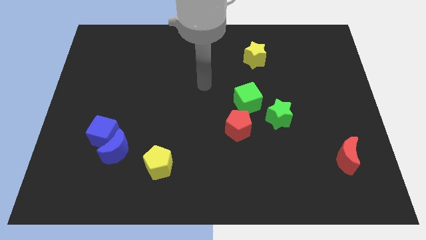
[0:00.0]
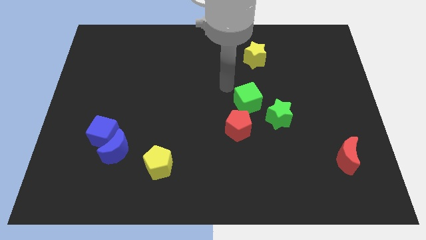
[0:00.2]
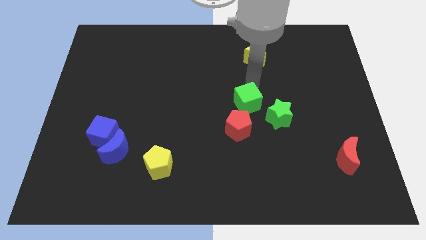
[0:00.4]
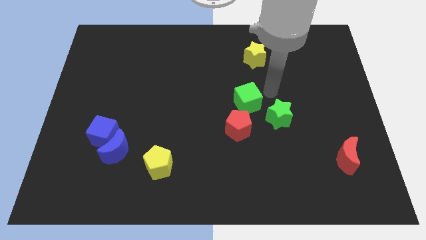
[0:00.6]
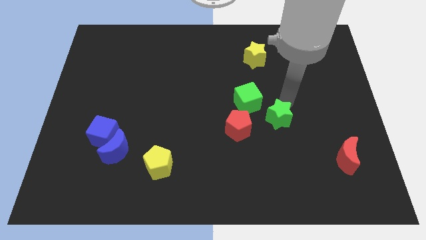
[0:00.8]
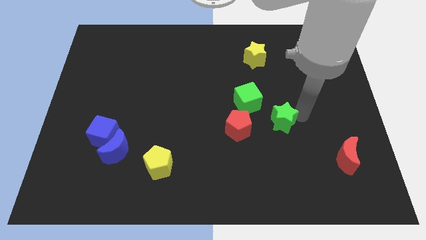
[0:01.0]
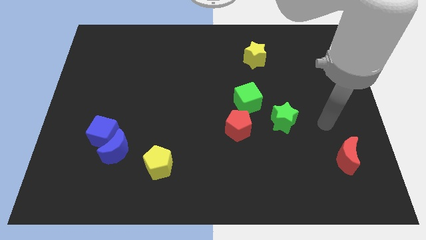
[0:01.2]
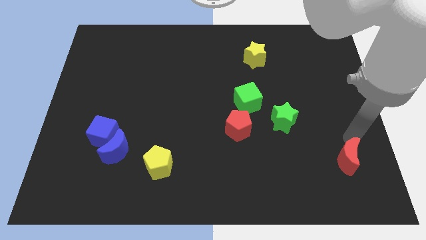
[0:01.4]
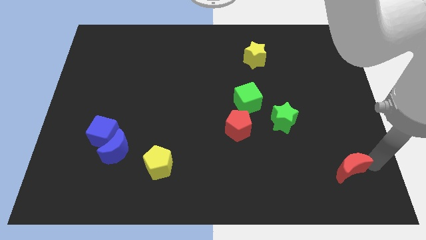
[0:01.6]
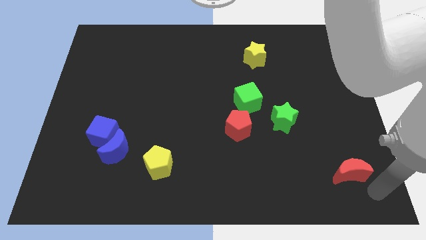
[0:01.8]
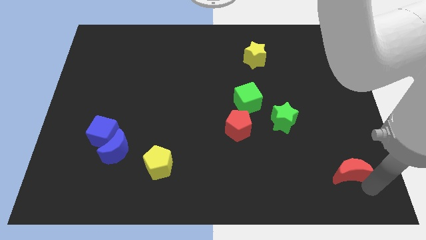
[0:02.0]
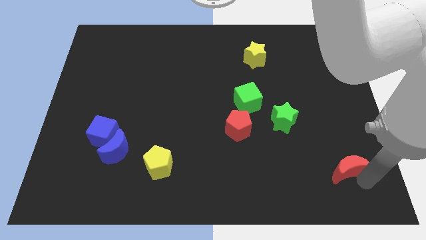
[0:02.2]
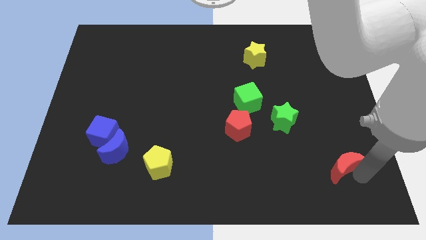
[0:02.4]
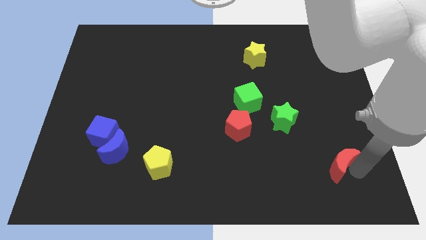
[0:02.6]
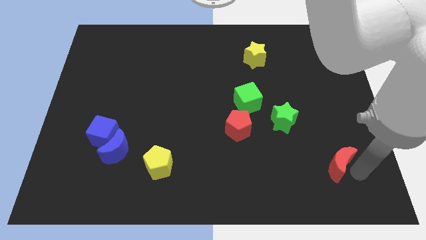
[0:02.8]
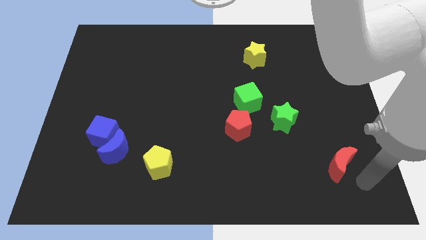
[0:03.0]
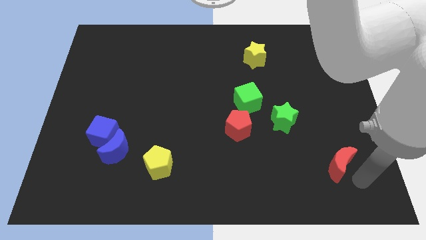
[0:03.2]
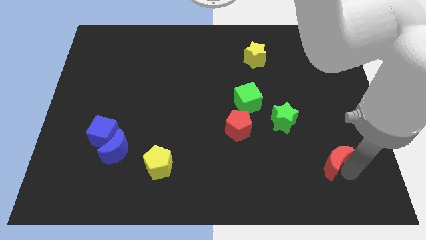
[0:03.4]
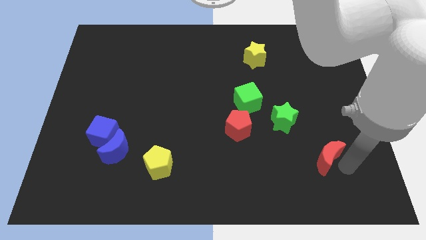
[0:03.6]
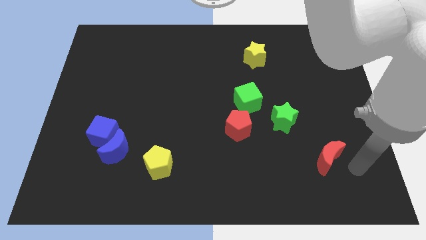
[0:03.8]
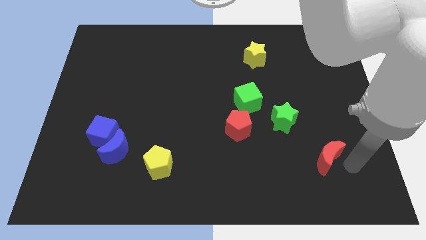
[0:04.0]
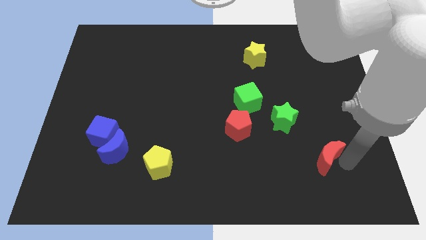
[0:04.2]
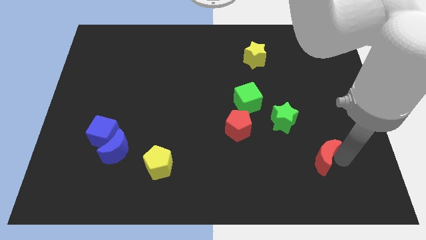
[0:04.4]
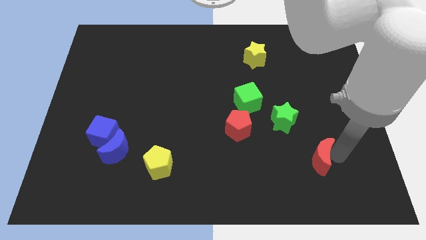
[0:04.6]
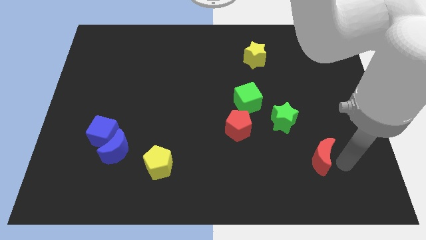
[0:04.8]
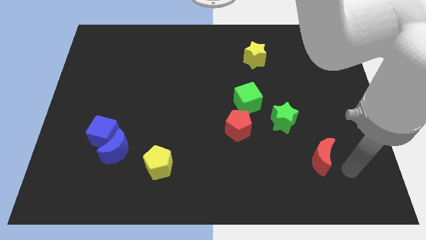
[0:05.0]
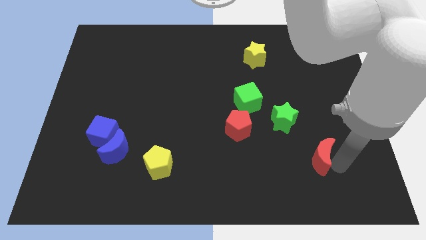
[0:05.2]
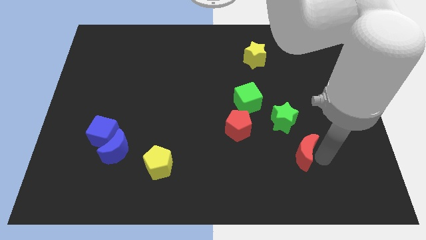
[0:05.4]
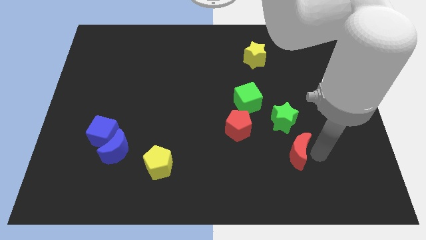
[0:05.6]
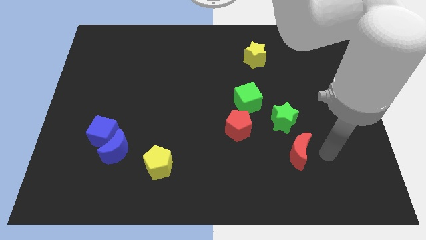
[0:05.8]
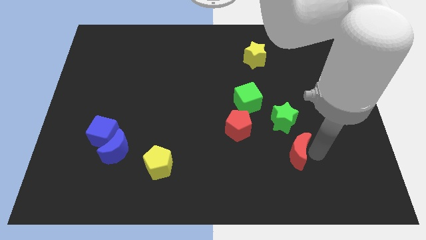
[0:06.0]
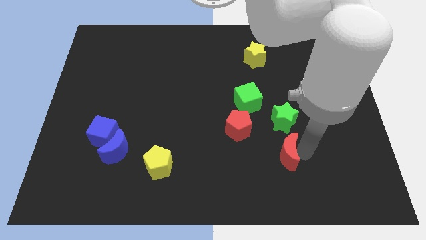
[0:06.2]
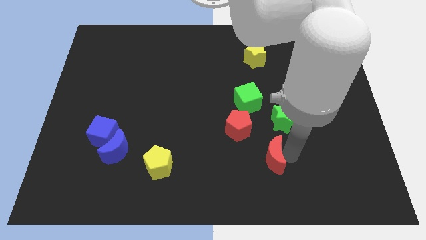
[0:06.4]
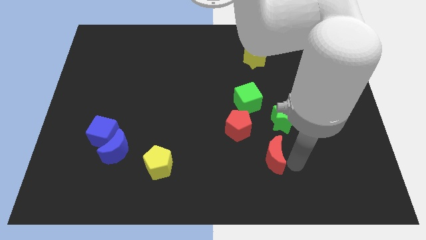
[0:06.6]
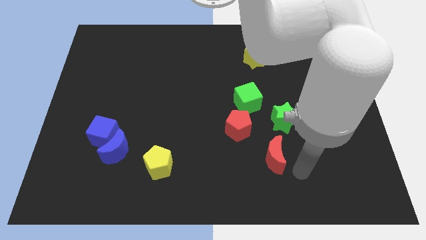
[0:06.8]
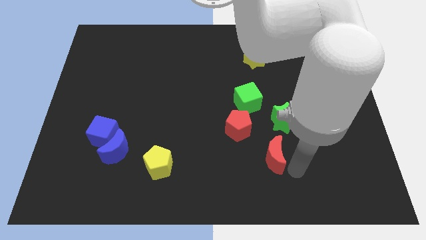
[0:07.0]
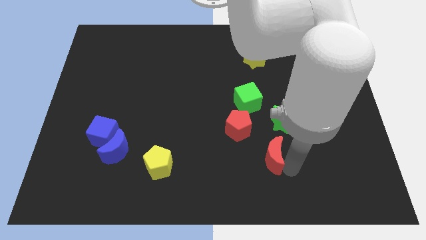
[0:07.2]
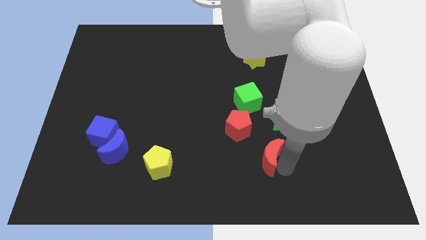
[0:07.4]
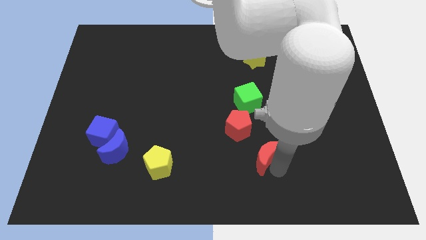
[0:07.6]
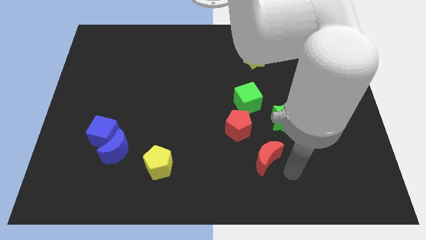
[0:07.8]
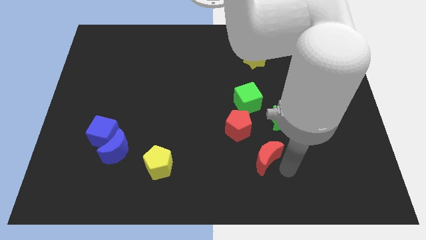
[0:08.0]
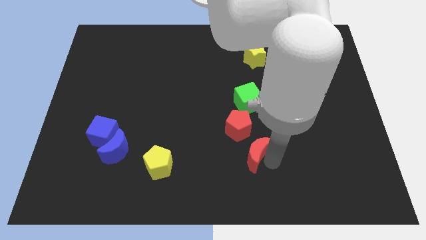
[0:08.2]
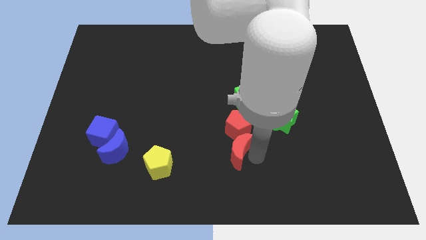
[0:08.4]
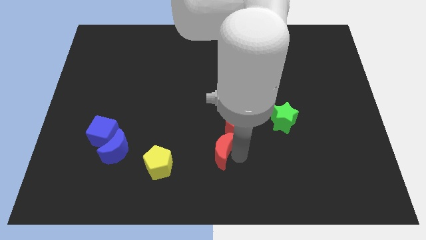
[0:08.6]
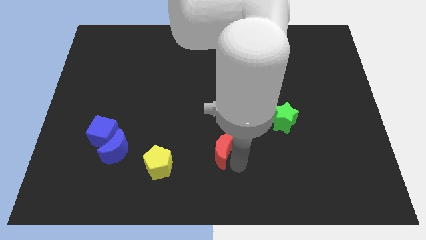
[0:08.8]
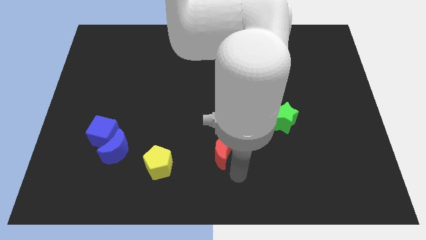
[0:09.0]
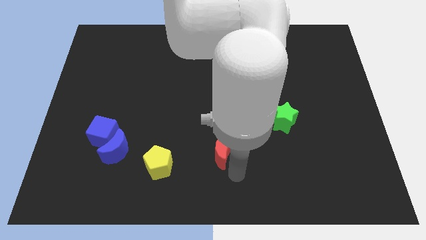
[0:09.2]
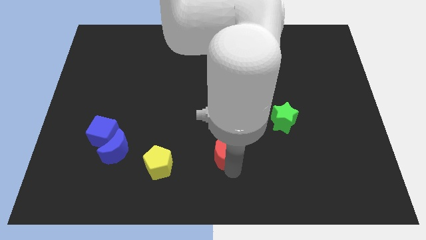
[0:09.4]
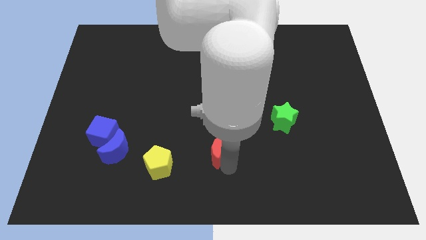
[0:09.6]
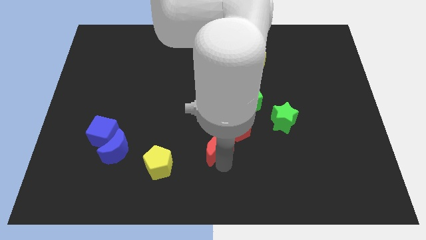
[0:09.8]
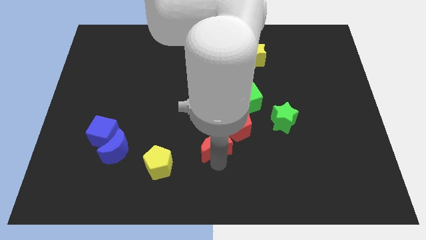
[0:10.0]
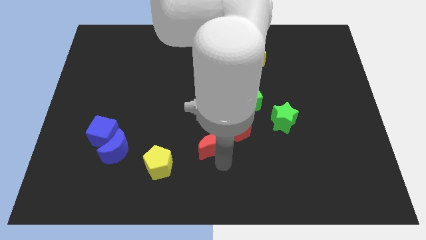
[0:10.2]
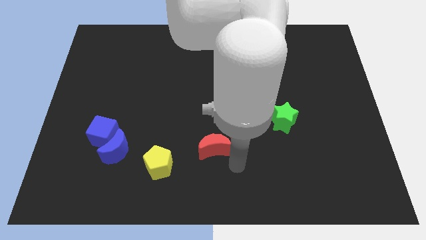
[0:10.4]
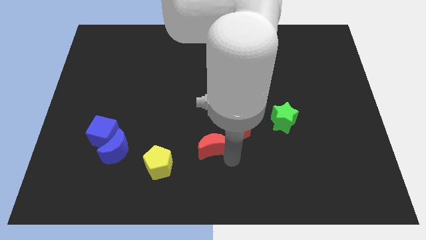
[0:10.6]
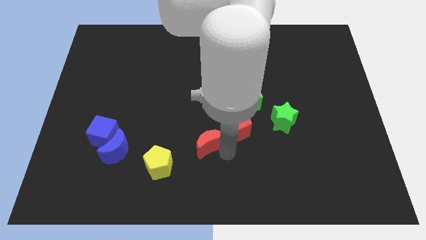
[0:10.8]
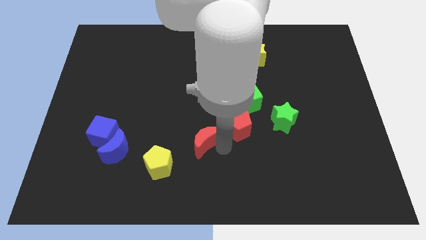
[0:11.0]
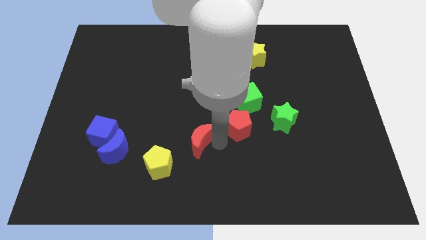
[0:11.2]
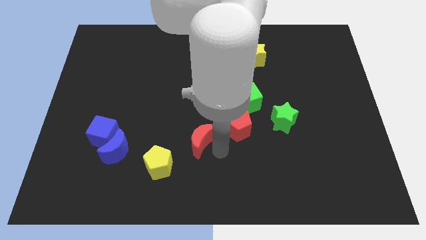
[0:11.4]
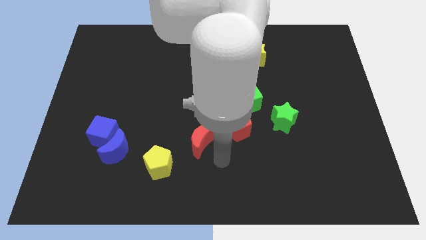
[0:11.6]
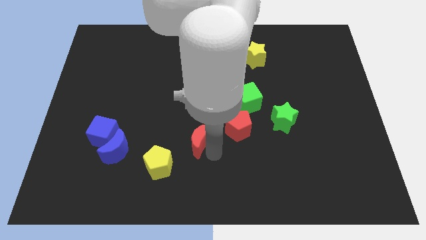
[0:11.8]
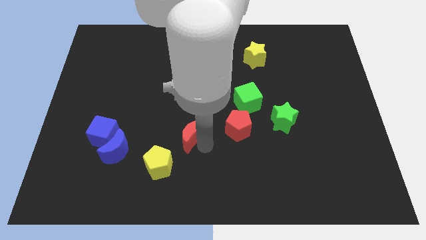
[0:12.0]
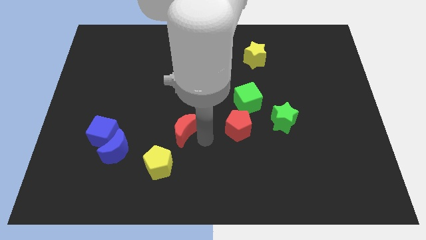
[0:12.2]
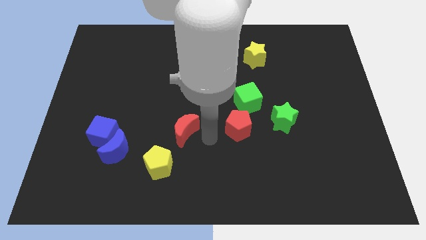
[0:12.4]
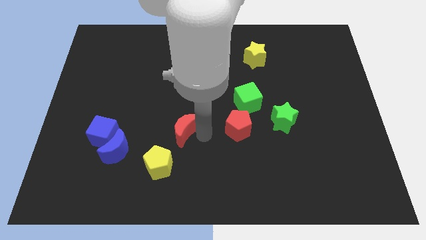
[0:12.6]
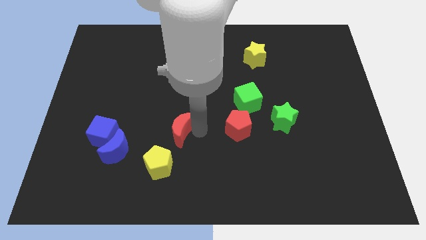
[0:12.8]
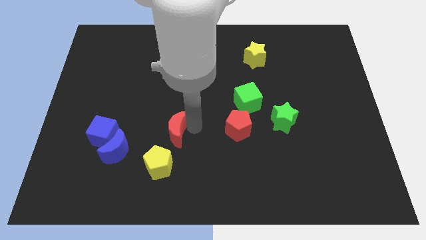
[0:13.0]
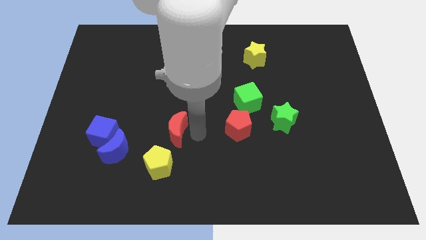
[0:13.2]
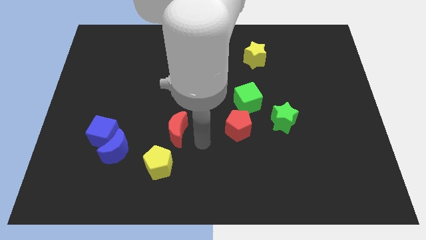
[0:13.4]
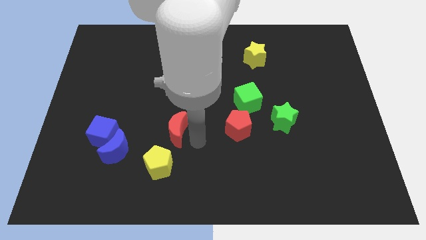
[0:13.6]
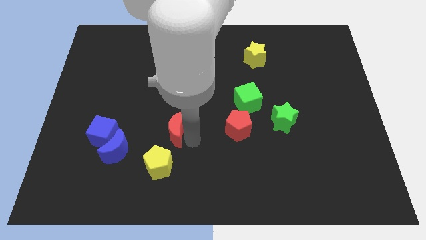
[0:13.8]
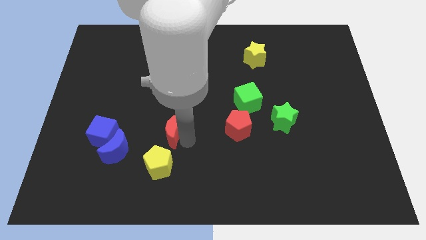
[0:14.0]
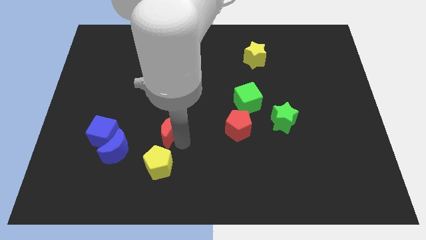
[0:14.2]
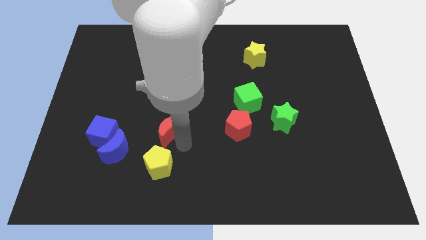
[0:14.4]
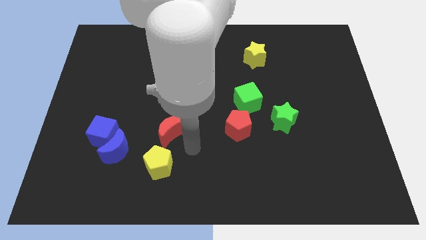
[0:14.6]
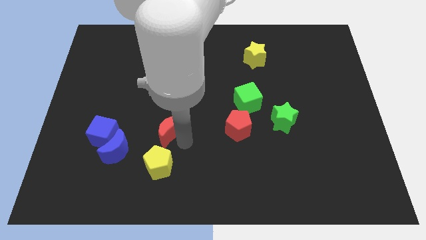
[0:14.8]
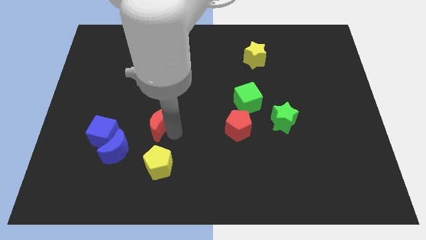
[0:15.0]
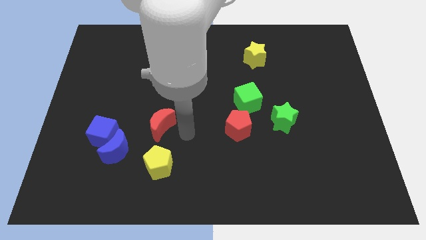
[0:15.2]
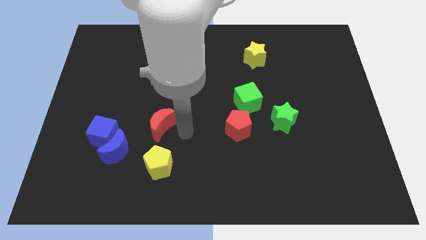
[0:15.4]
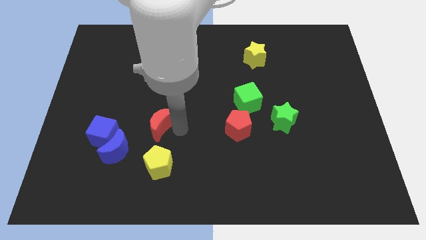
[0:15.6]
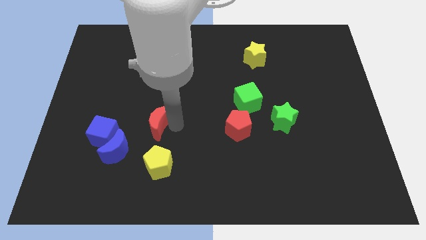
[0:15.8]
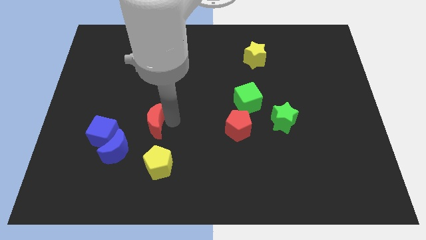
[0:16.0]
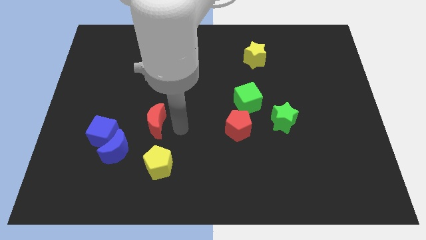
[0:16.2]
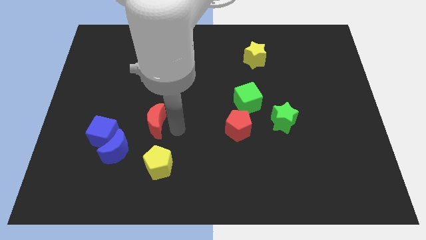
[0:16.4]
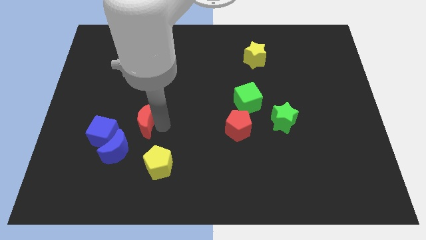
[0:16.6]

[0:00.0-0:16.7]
put the red moon diagonally up and to the right of the blue cube
